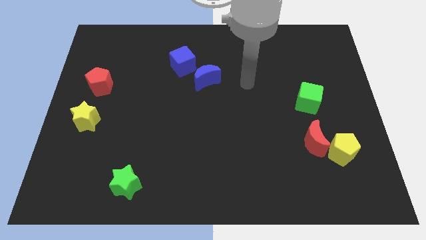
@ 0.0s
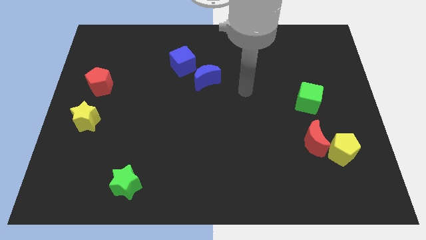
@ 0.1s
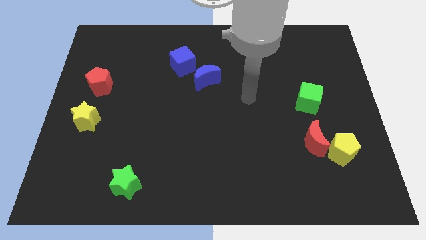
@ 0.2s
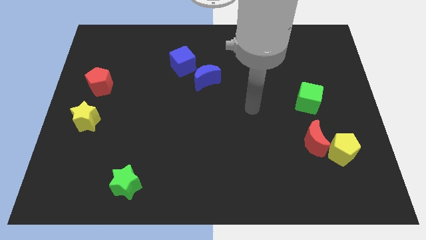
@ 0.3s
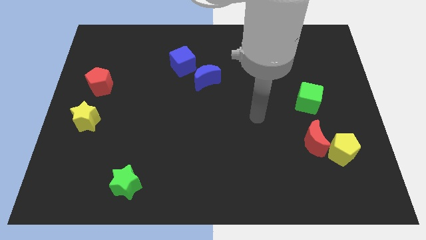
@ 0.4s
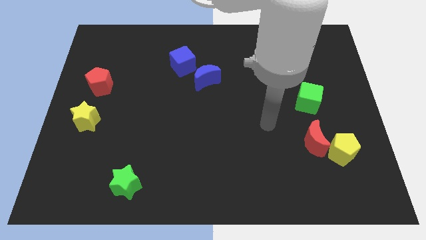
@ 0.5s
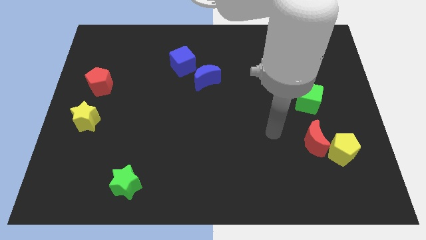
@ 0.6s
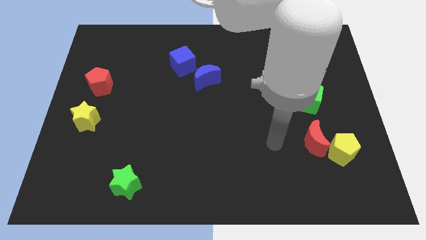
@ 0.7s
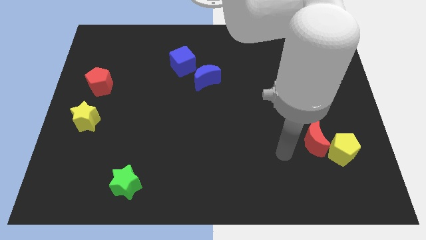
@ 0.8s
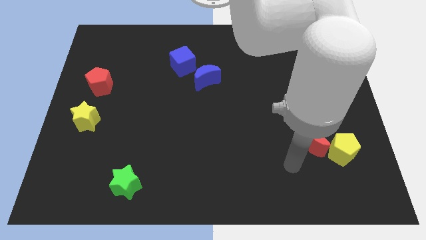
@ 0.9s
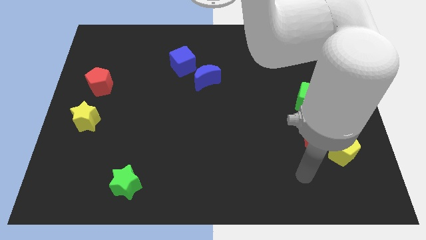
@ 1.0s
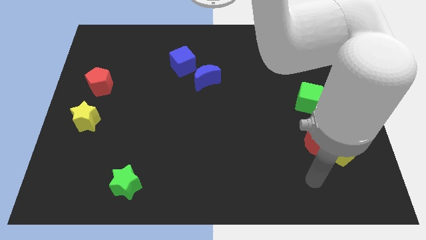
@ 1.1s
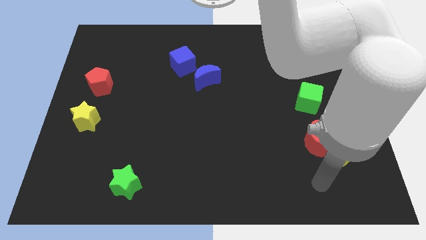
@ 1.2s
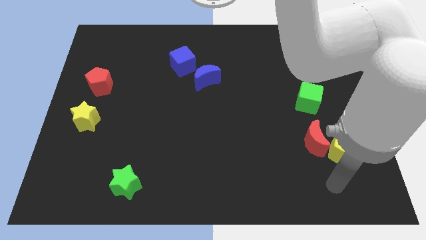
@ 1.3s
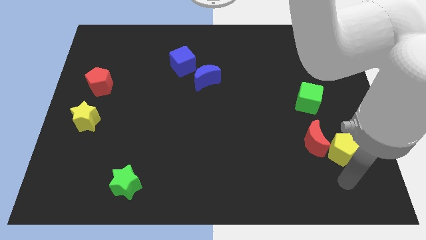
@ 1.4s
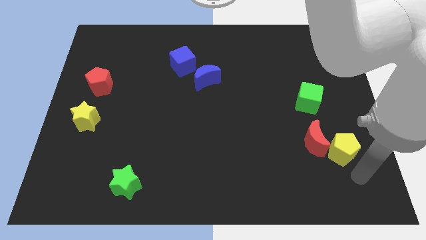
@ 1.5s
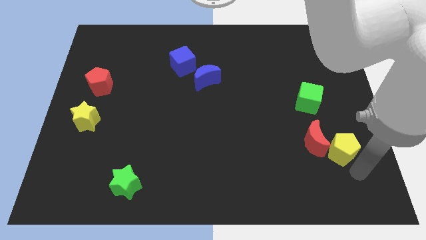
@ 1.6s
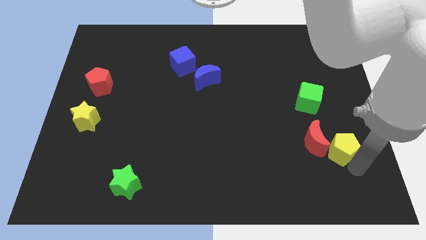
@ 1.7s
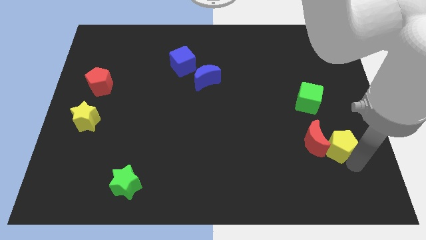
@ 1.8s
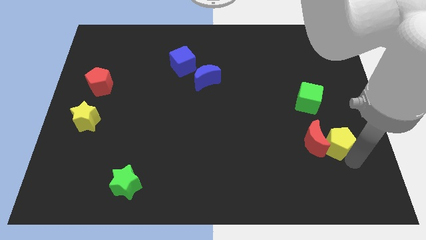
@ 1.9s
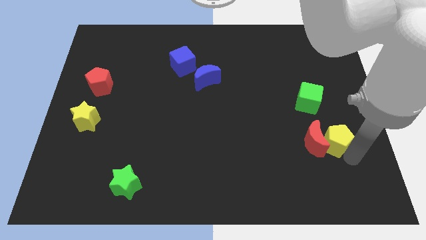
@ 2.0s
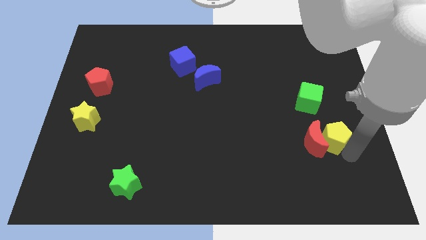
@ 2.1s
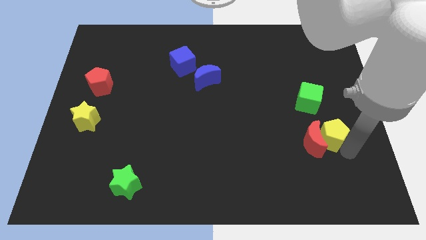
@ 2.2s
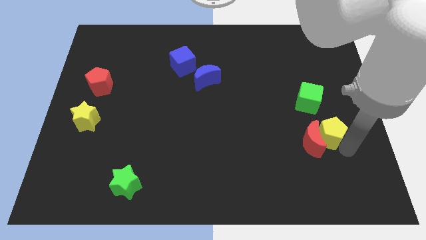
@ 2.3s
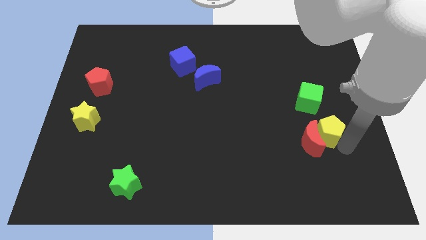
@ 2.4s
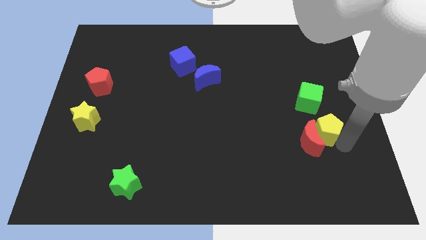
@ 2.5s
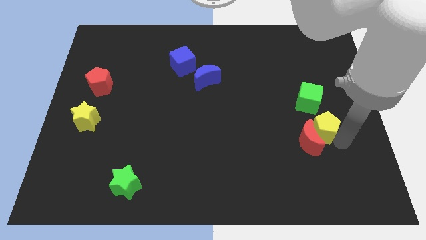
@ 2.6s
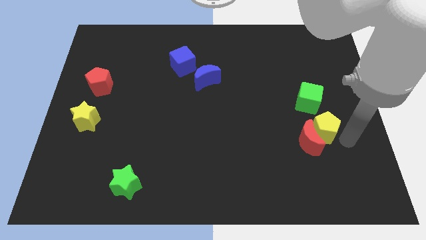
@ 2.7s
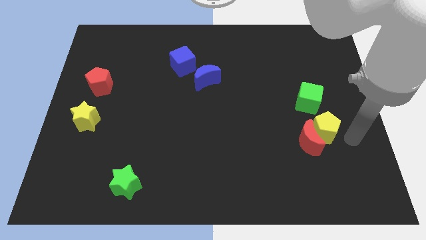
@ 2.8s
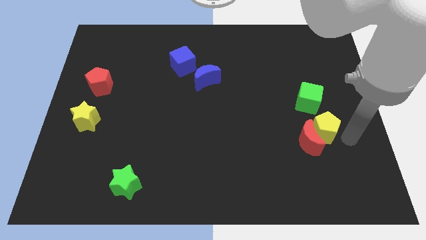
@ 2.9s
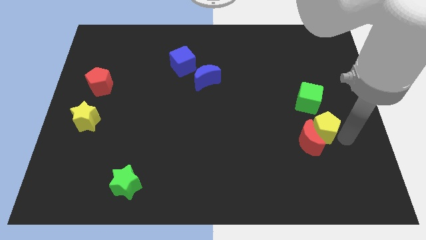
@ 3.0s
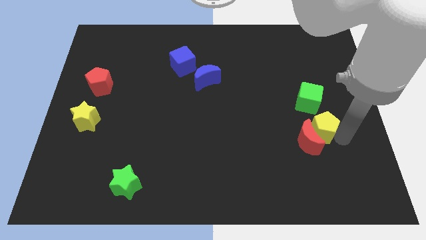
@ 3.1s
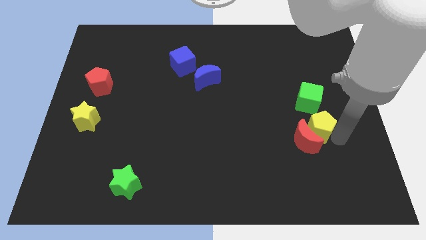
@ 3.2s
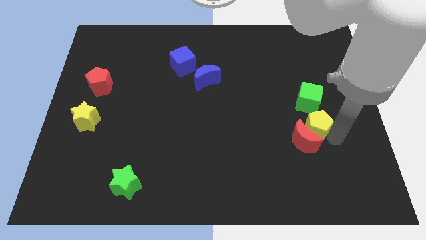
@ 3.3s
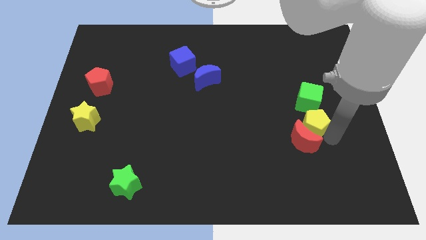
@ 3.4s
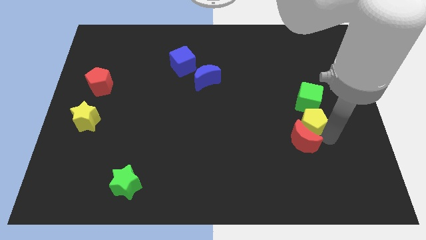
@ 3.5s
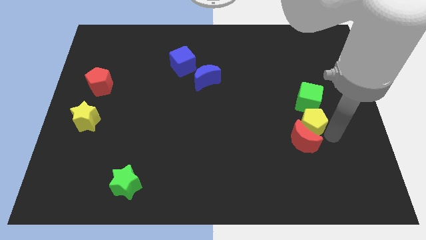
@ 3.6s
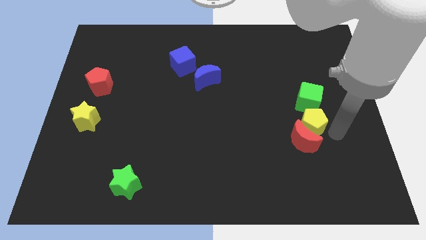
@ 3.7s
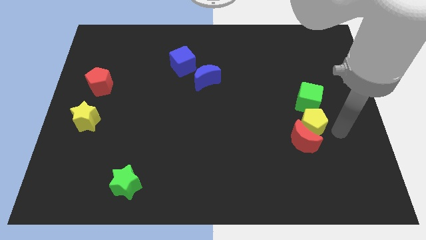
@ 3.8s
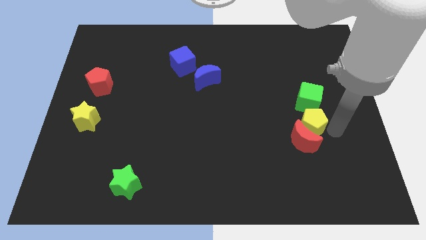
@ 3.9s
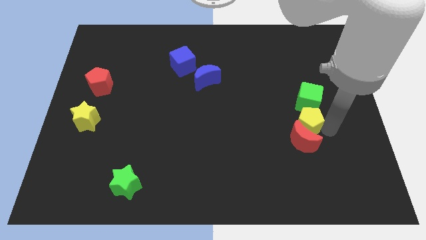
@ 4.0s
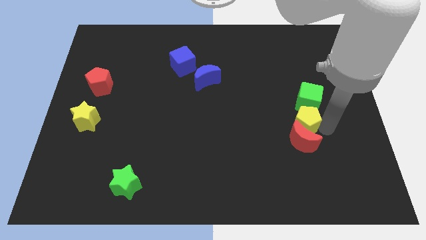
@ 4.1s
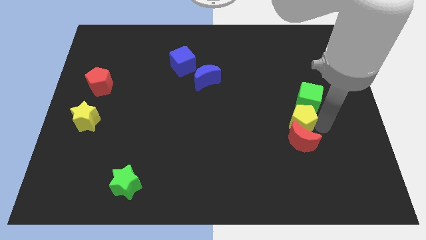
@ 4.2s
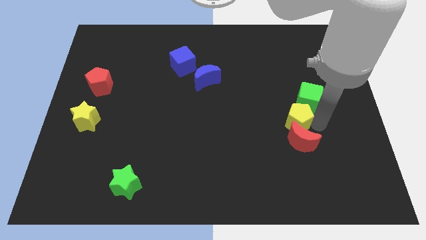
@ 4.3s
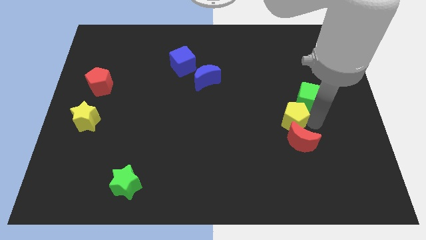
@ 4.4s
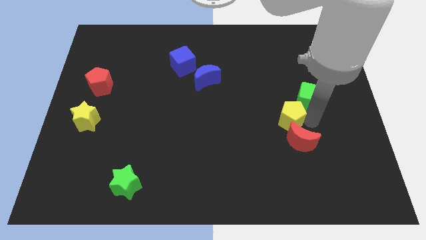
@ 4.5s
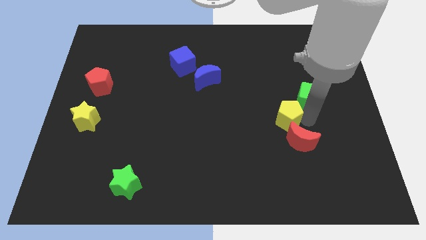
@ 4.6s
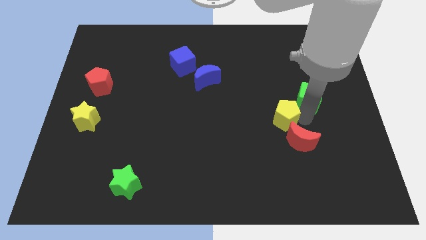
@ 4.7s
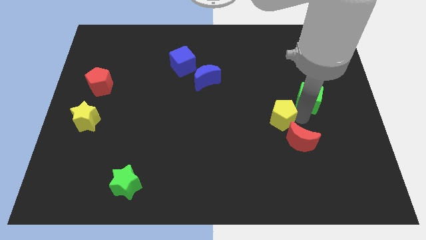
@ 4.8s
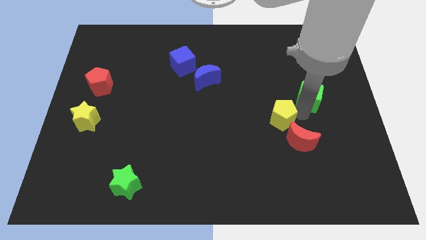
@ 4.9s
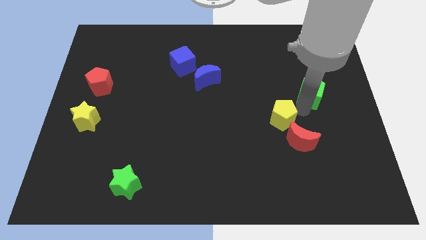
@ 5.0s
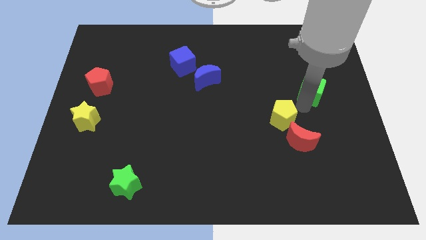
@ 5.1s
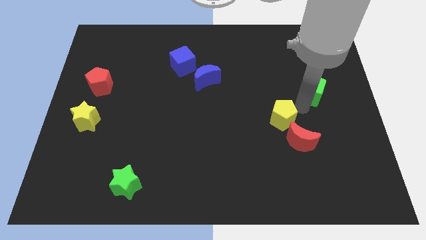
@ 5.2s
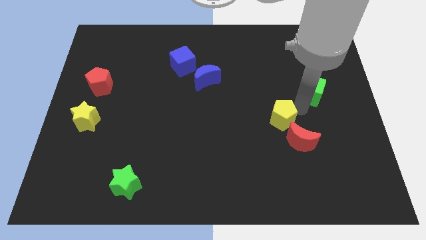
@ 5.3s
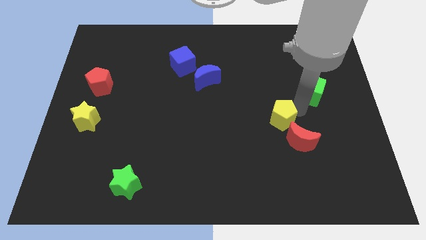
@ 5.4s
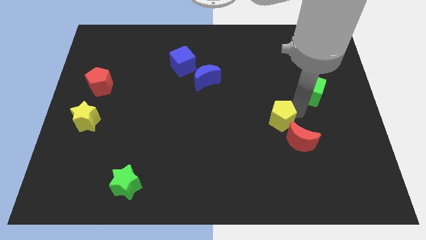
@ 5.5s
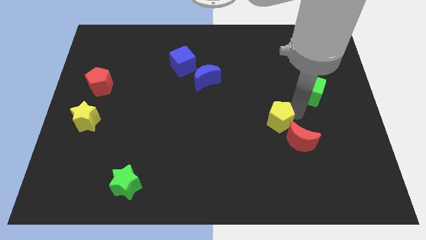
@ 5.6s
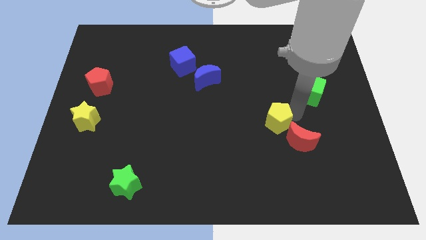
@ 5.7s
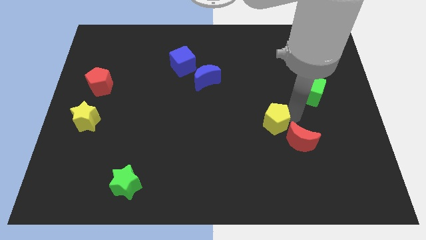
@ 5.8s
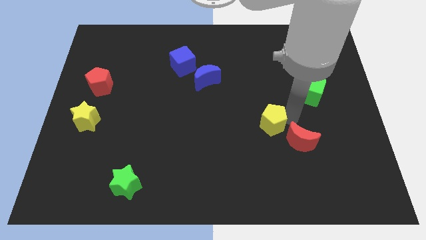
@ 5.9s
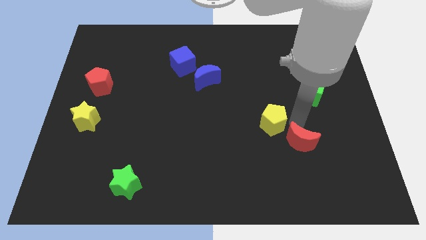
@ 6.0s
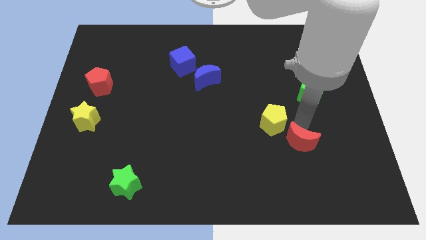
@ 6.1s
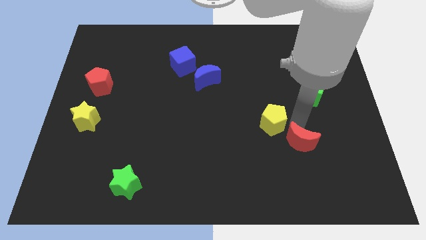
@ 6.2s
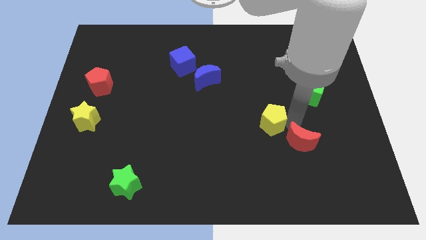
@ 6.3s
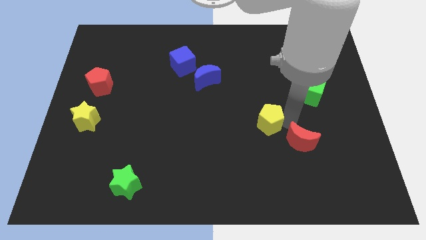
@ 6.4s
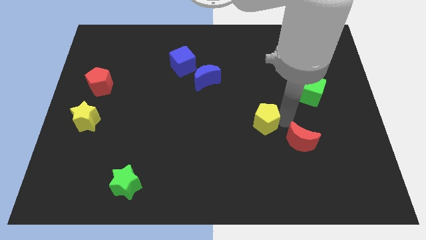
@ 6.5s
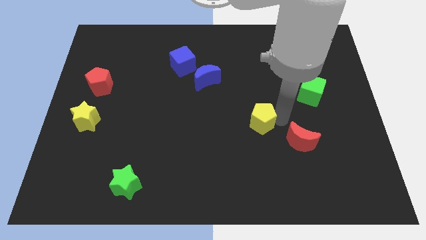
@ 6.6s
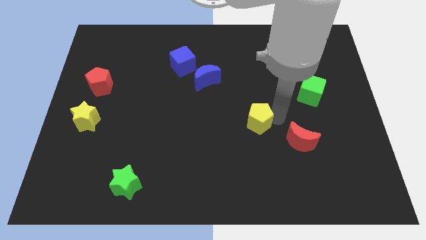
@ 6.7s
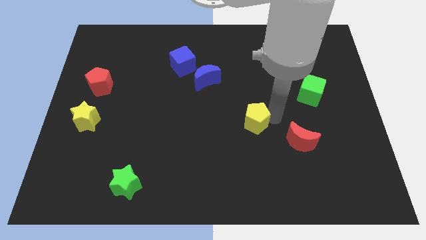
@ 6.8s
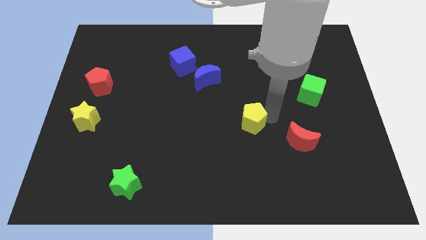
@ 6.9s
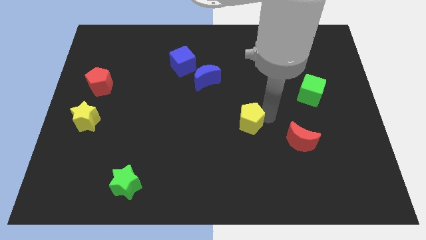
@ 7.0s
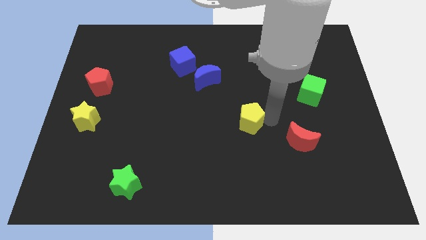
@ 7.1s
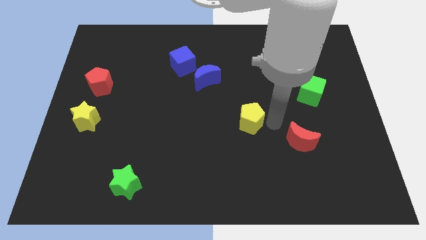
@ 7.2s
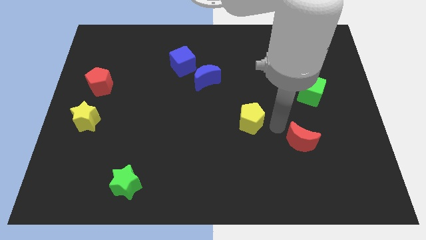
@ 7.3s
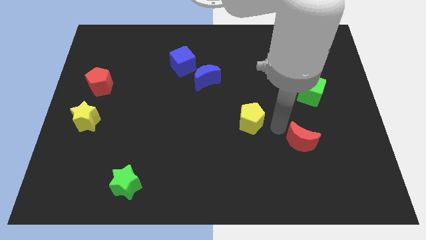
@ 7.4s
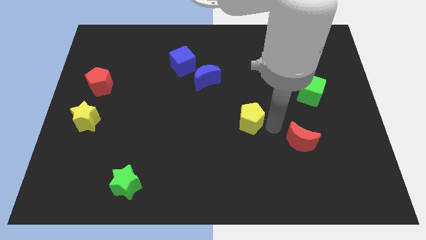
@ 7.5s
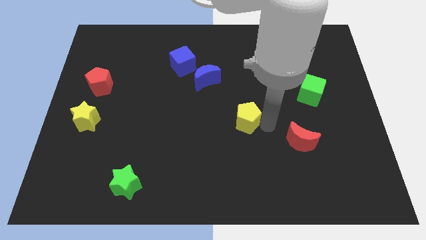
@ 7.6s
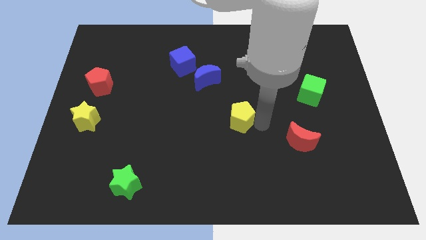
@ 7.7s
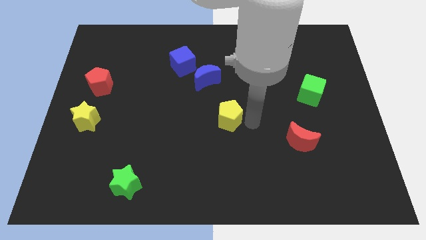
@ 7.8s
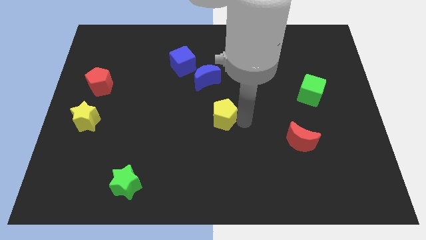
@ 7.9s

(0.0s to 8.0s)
push the yellow pentagon to the bottom side of the blue moon

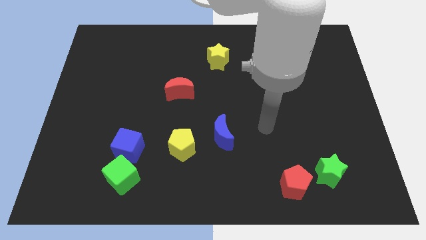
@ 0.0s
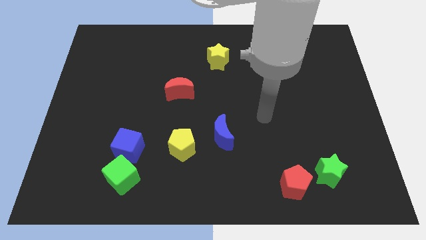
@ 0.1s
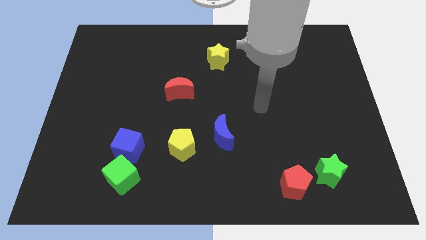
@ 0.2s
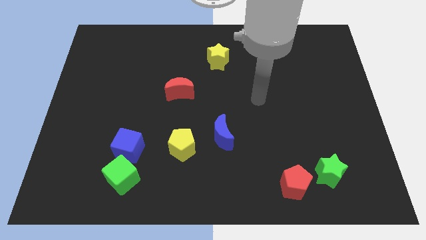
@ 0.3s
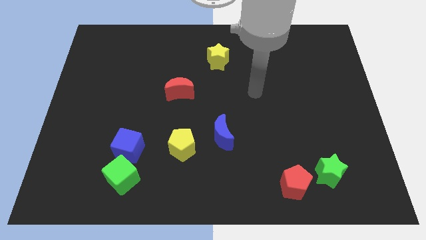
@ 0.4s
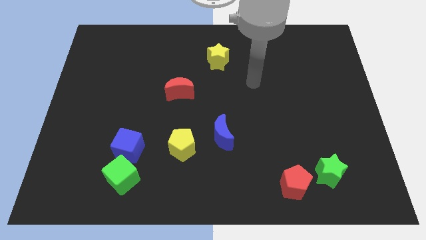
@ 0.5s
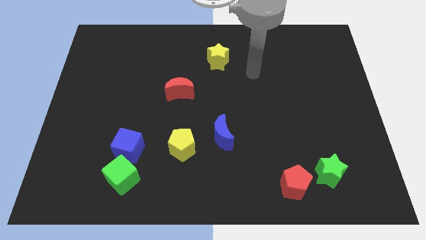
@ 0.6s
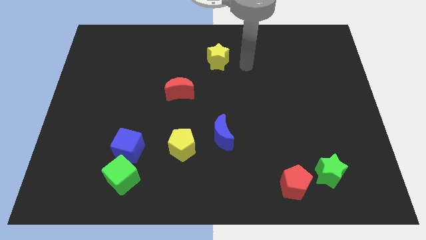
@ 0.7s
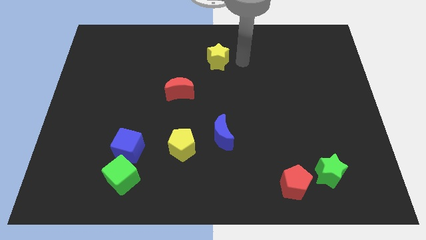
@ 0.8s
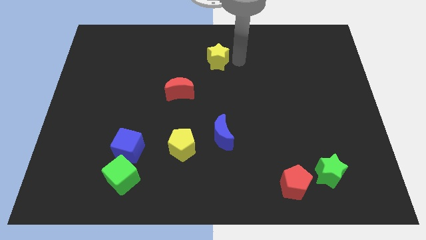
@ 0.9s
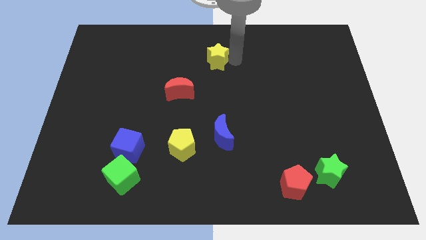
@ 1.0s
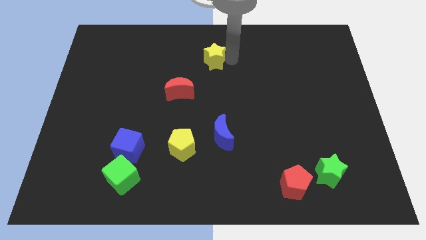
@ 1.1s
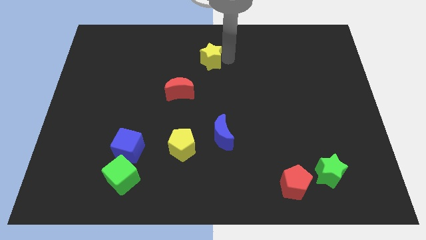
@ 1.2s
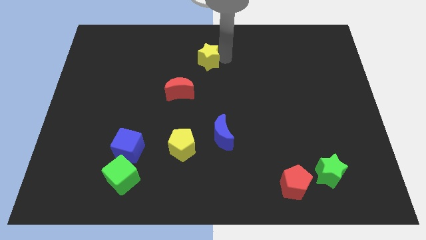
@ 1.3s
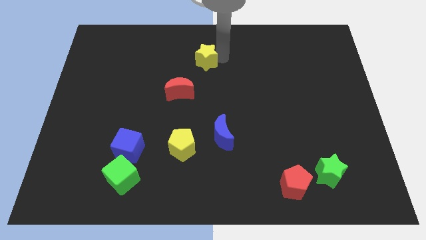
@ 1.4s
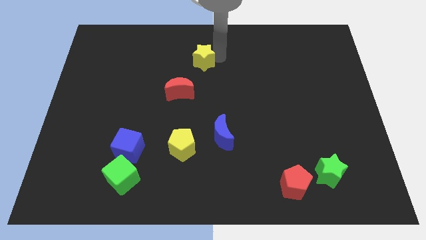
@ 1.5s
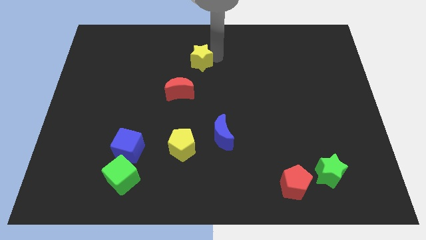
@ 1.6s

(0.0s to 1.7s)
push the yellow star above the red moon
